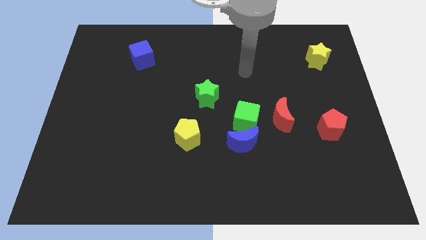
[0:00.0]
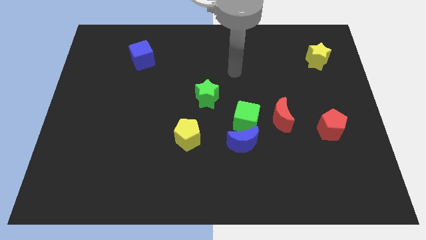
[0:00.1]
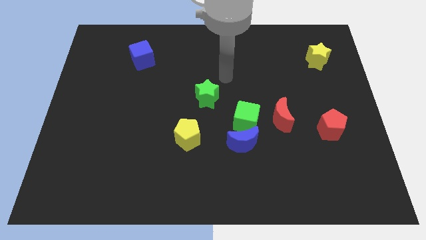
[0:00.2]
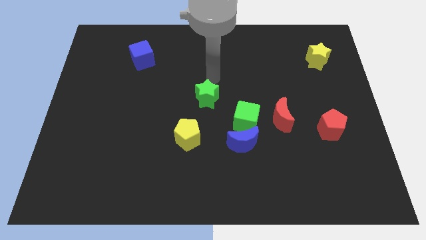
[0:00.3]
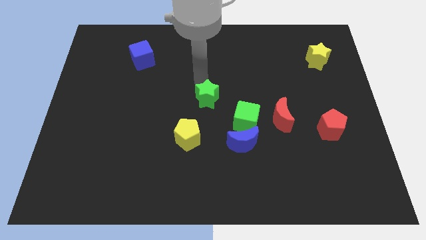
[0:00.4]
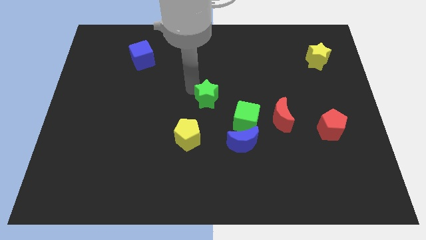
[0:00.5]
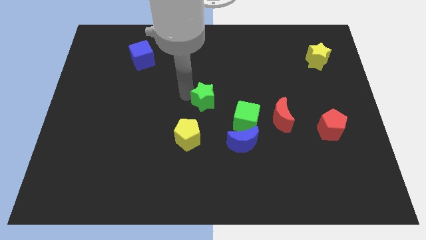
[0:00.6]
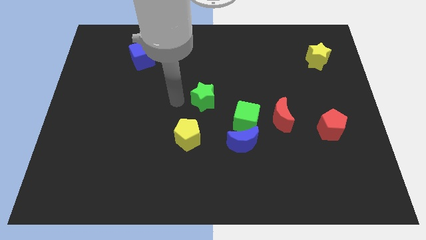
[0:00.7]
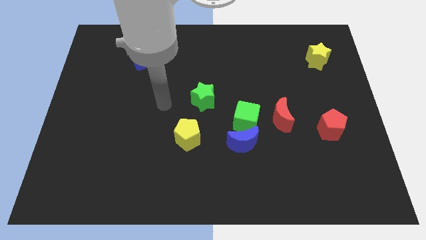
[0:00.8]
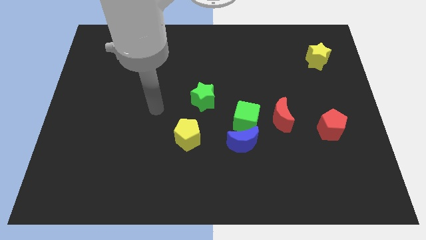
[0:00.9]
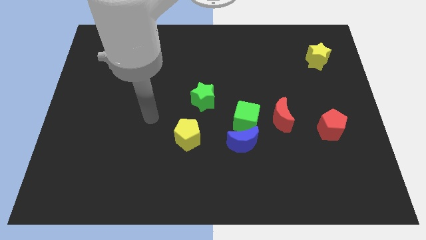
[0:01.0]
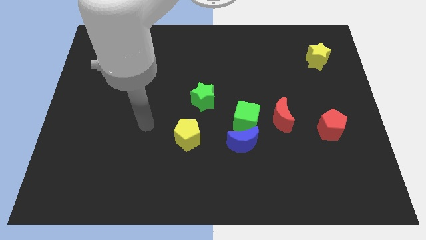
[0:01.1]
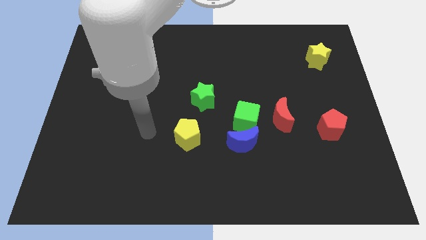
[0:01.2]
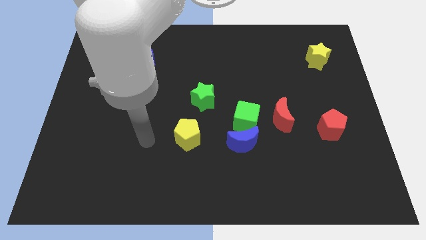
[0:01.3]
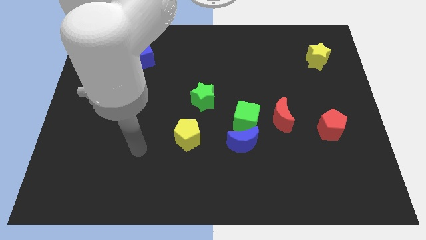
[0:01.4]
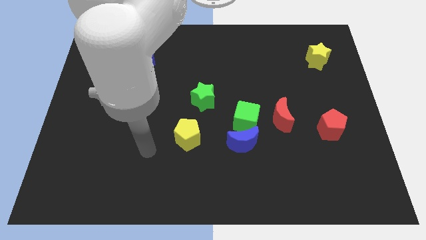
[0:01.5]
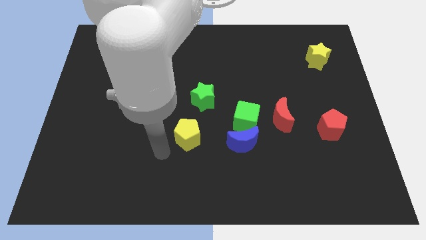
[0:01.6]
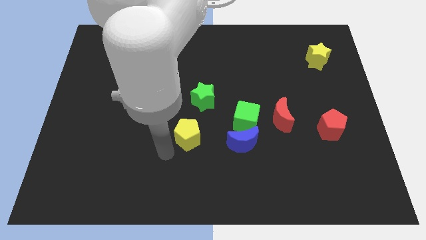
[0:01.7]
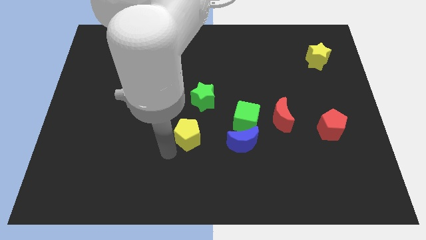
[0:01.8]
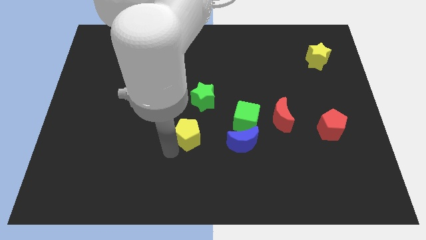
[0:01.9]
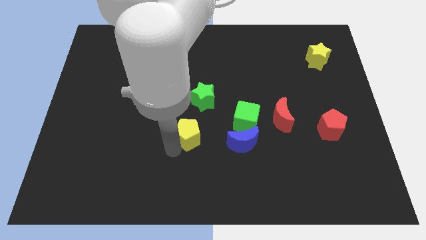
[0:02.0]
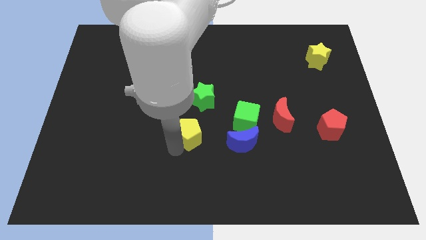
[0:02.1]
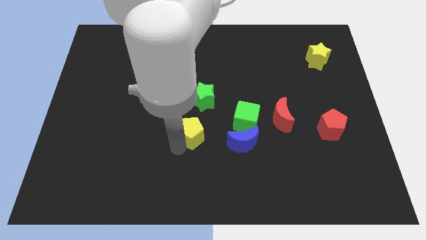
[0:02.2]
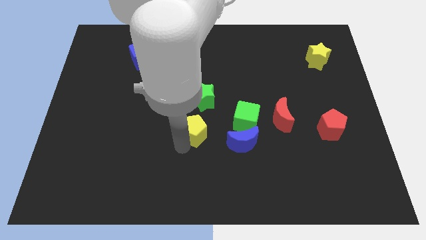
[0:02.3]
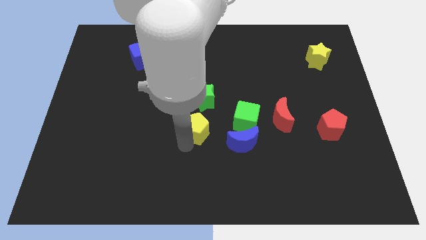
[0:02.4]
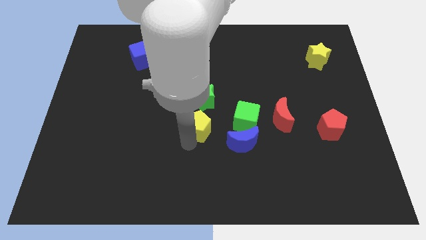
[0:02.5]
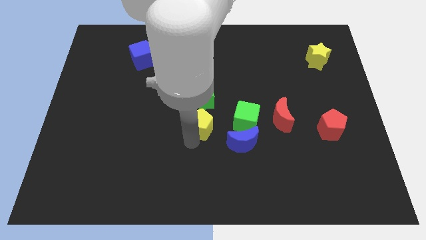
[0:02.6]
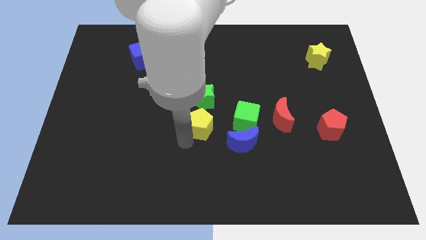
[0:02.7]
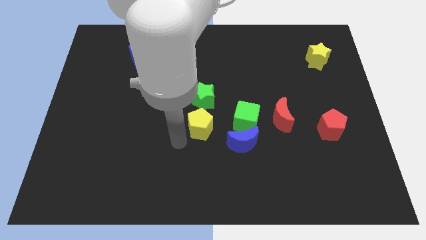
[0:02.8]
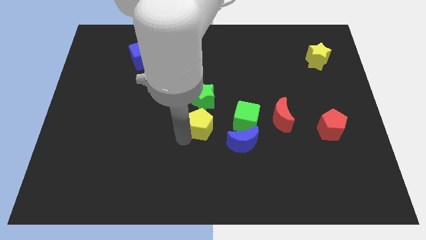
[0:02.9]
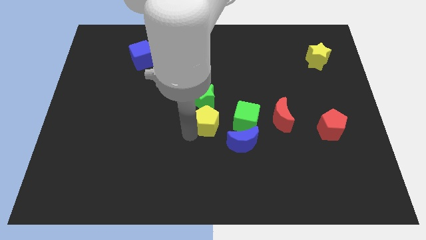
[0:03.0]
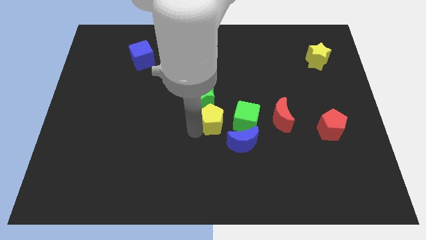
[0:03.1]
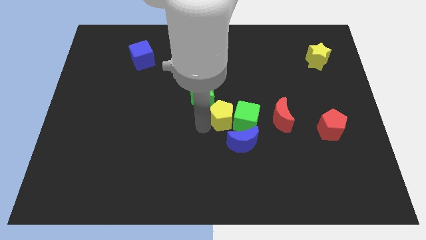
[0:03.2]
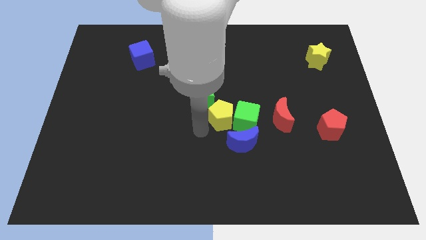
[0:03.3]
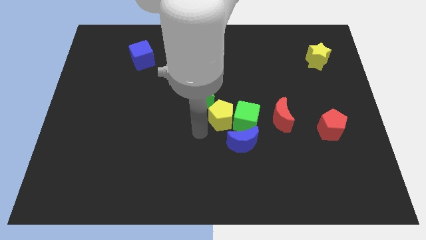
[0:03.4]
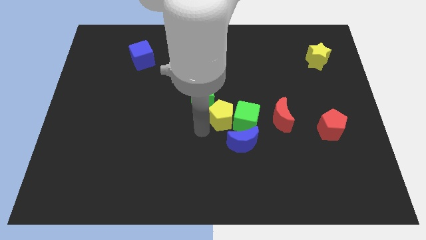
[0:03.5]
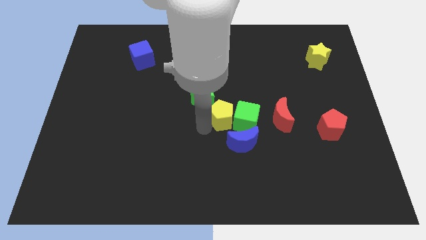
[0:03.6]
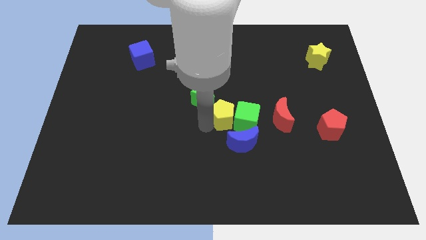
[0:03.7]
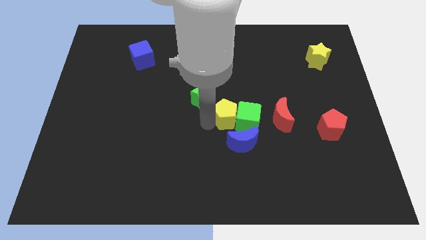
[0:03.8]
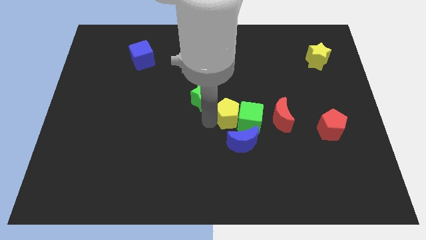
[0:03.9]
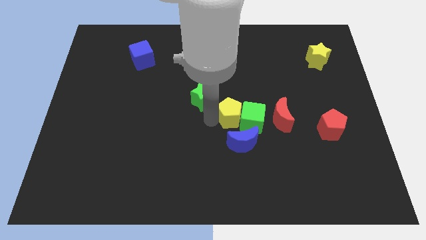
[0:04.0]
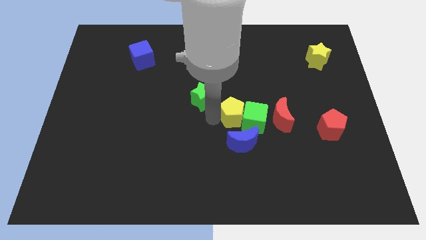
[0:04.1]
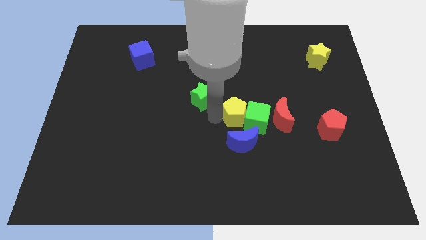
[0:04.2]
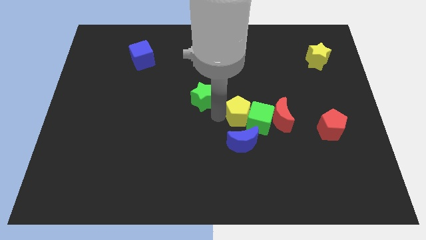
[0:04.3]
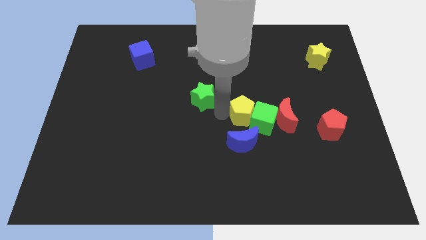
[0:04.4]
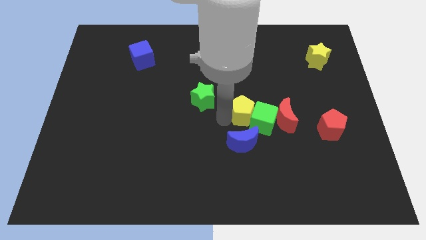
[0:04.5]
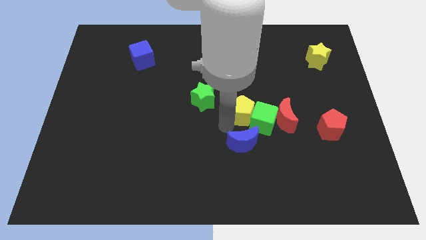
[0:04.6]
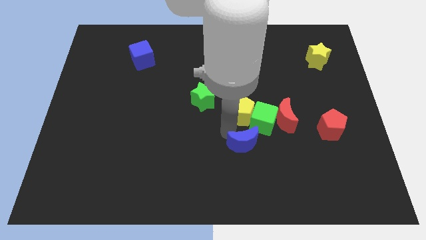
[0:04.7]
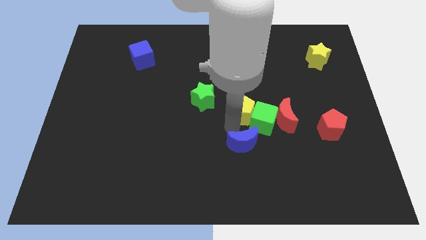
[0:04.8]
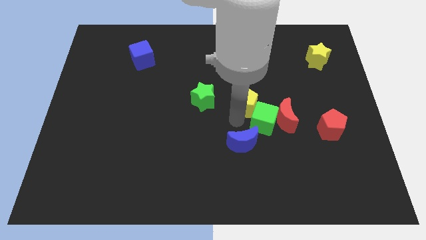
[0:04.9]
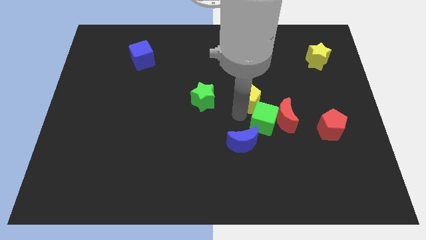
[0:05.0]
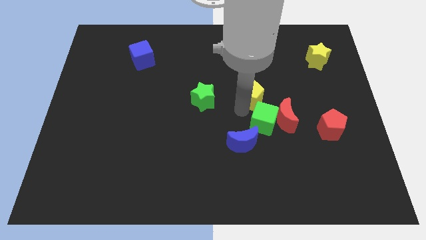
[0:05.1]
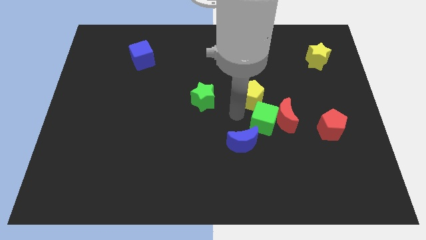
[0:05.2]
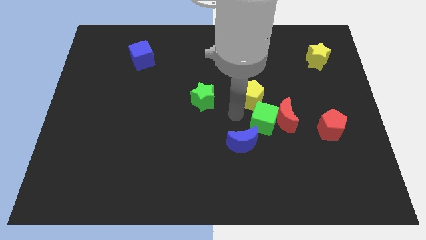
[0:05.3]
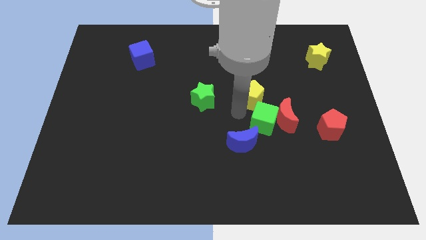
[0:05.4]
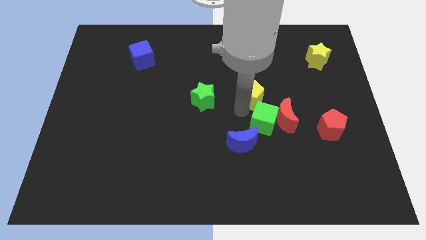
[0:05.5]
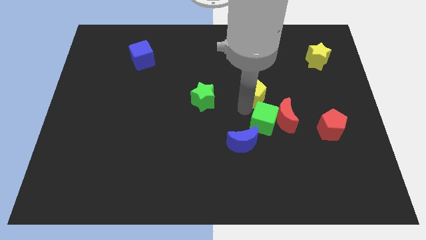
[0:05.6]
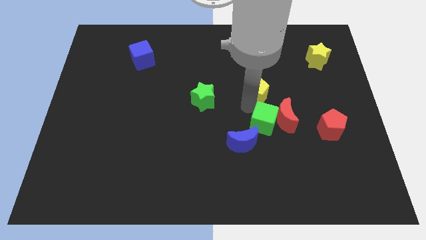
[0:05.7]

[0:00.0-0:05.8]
push the yellow pentagon up and to the right diagonally

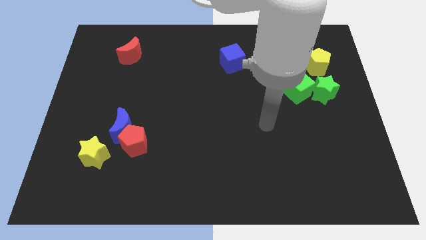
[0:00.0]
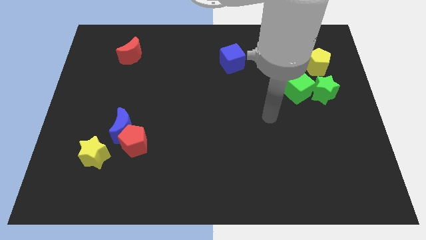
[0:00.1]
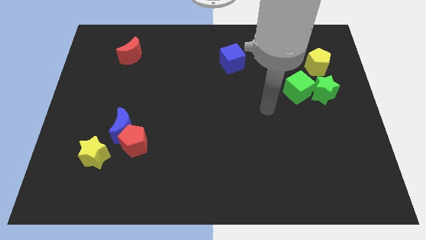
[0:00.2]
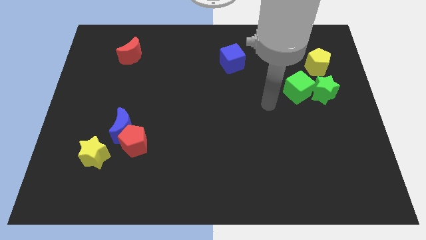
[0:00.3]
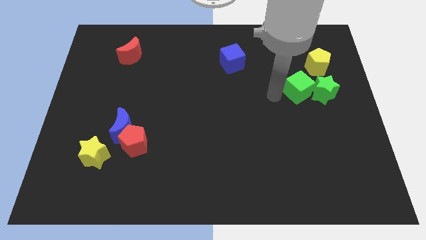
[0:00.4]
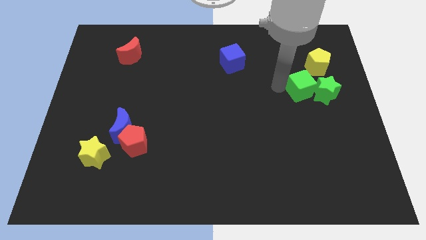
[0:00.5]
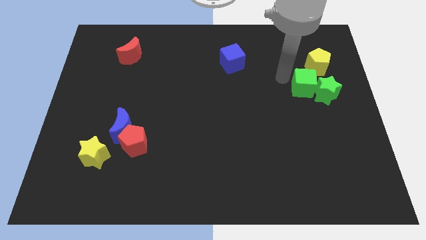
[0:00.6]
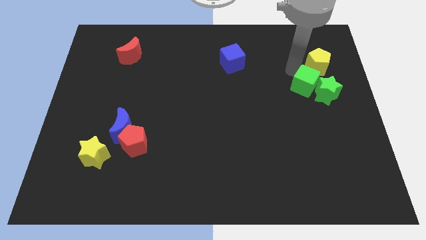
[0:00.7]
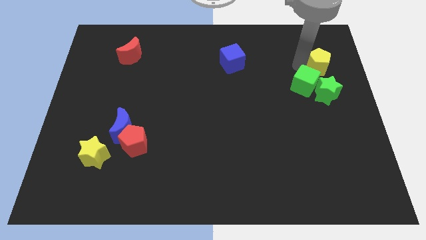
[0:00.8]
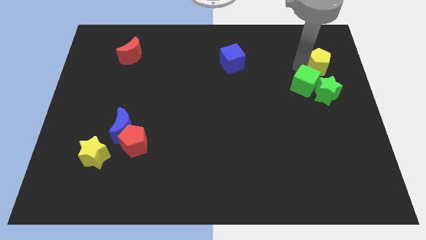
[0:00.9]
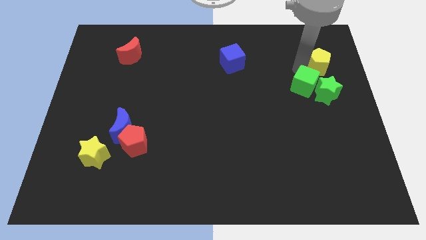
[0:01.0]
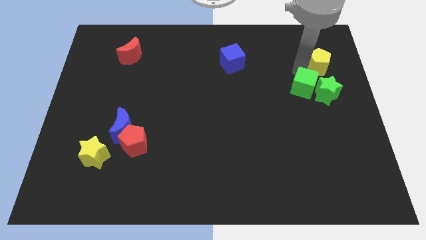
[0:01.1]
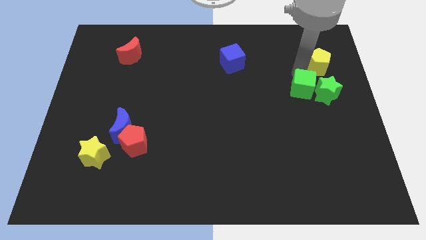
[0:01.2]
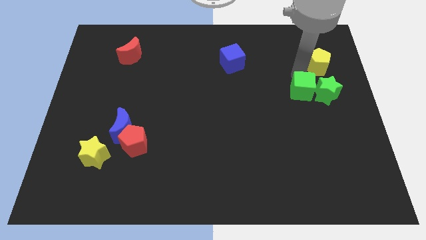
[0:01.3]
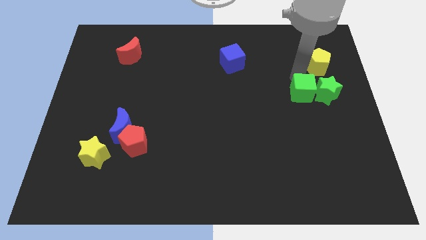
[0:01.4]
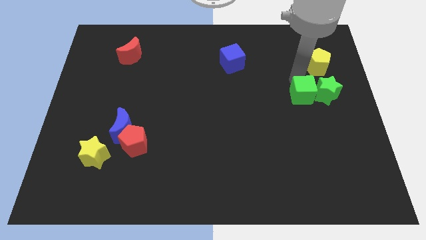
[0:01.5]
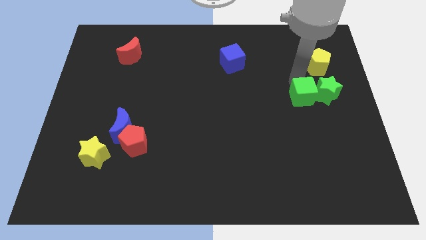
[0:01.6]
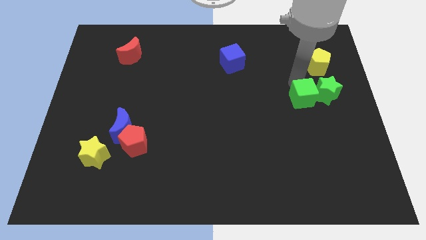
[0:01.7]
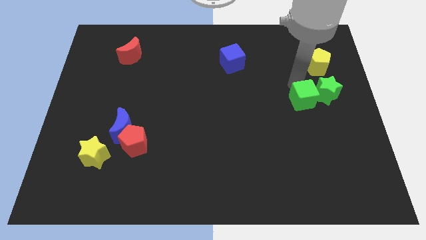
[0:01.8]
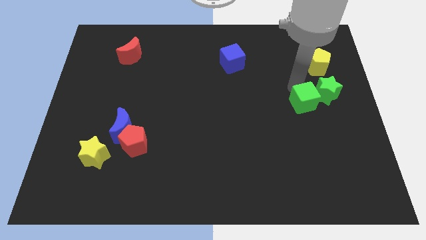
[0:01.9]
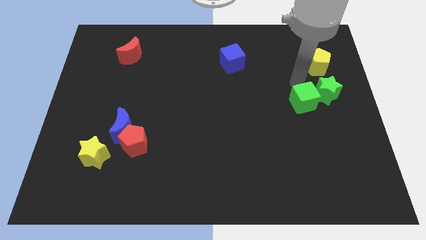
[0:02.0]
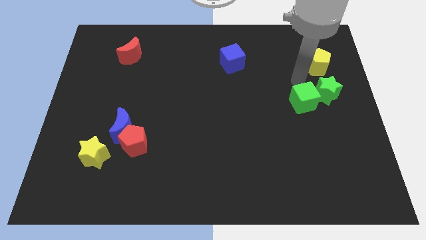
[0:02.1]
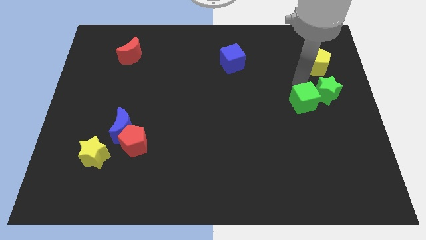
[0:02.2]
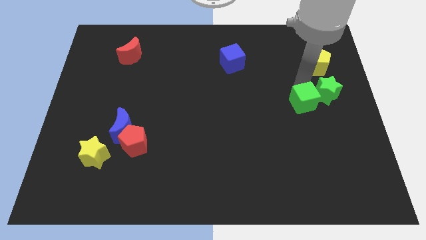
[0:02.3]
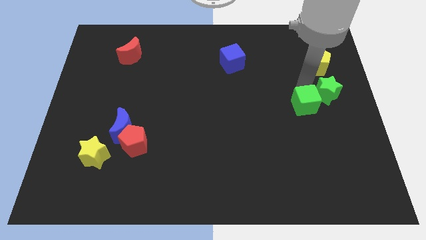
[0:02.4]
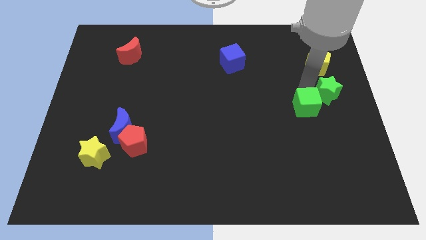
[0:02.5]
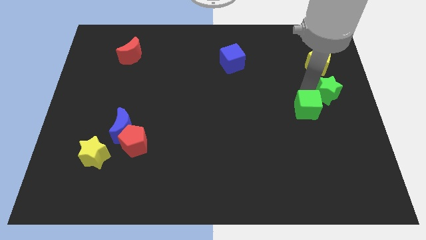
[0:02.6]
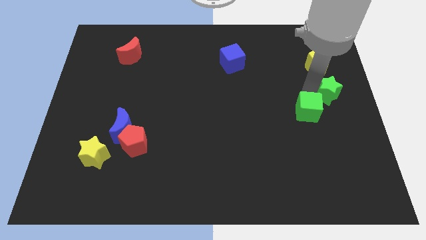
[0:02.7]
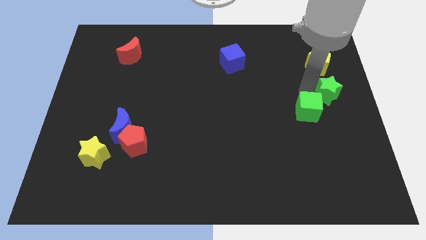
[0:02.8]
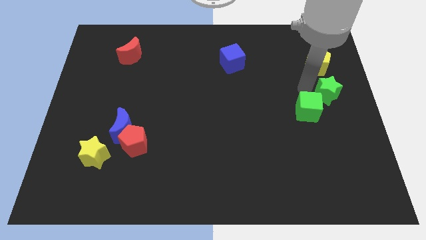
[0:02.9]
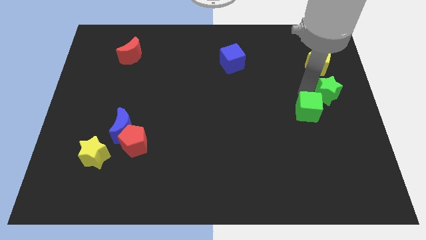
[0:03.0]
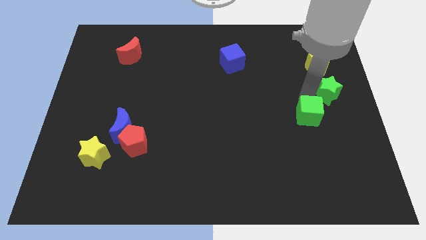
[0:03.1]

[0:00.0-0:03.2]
move the green cube a little downwards
